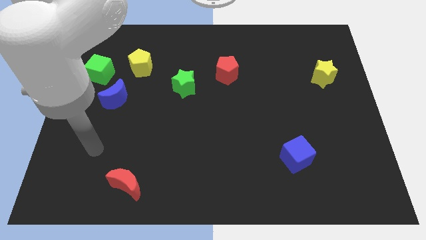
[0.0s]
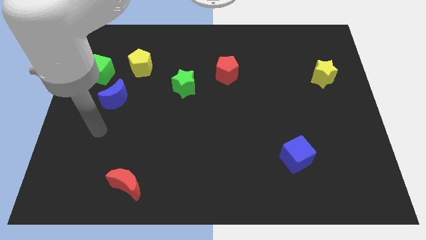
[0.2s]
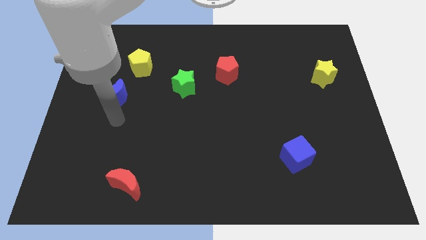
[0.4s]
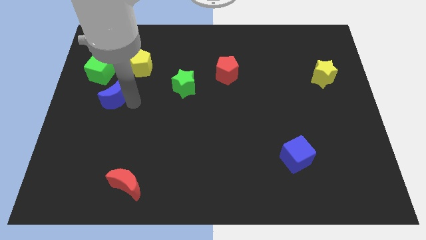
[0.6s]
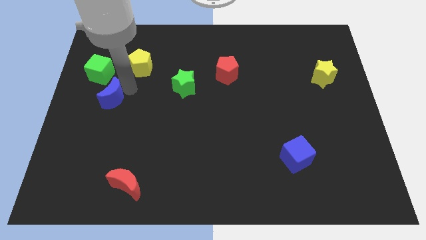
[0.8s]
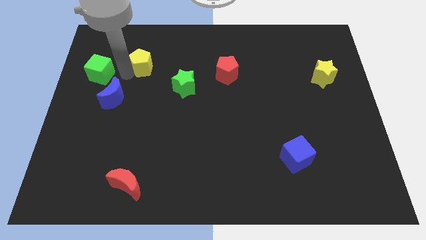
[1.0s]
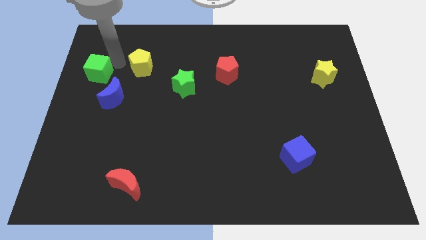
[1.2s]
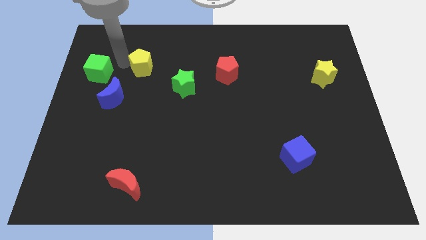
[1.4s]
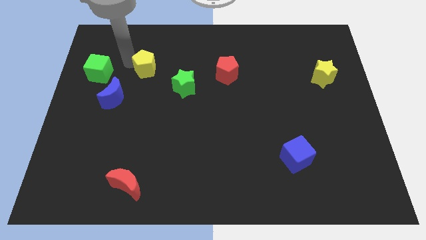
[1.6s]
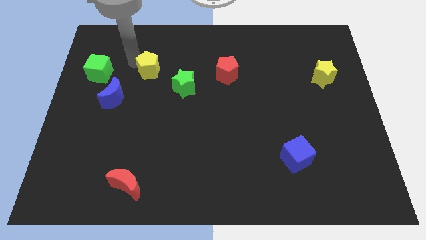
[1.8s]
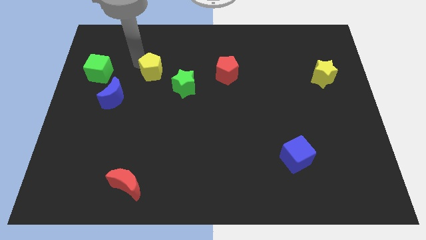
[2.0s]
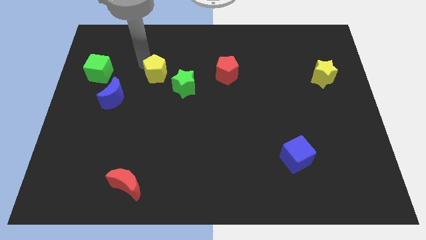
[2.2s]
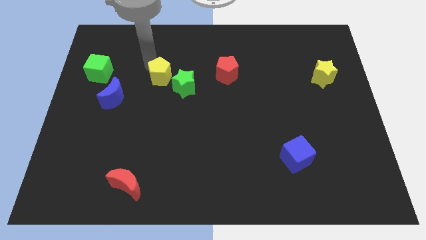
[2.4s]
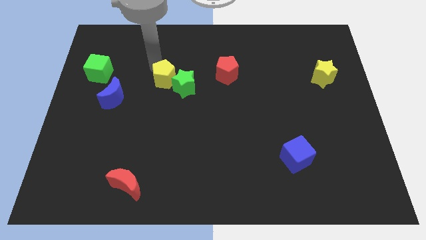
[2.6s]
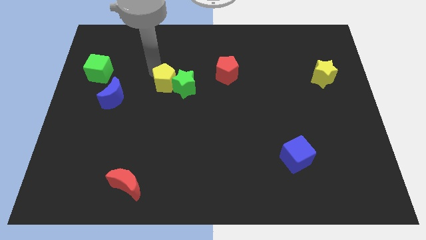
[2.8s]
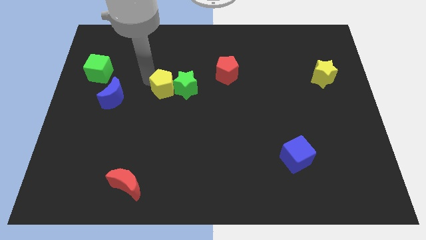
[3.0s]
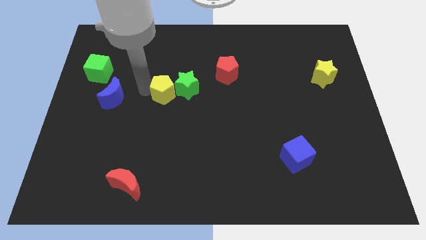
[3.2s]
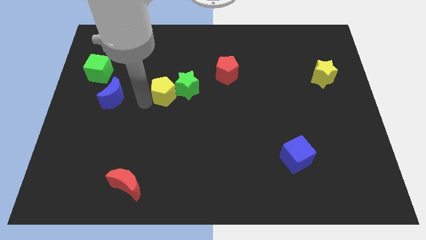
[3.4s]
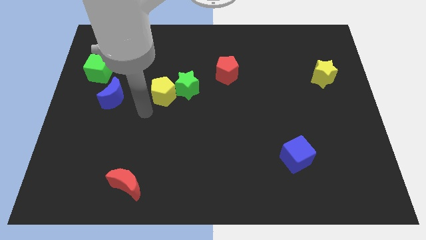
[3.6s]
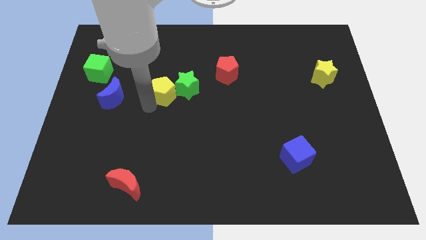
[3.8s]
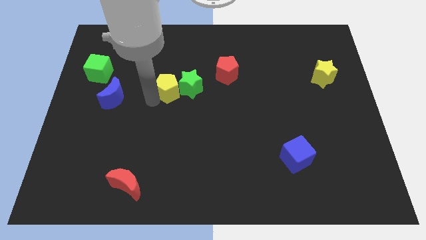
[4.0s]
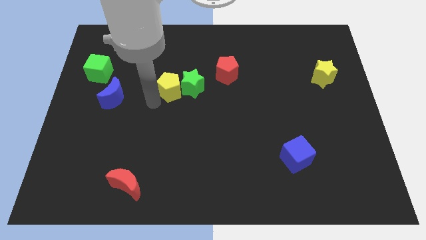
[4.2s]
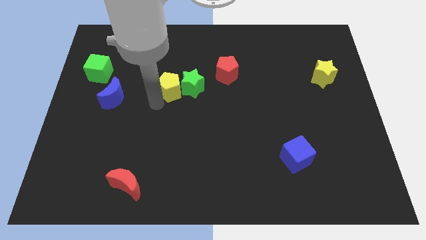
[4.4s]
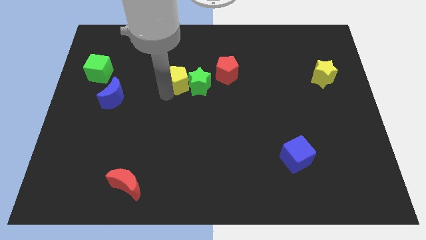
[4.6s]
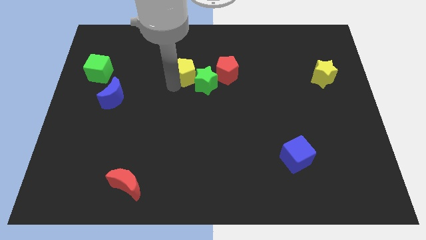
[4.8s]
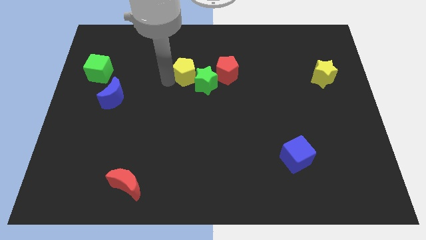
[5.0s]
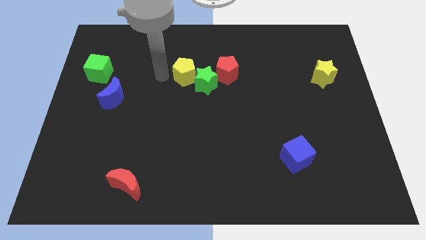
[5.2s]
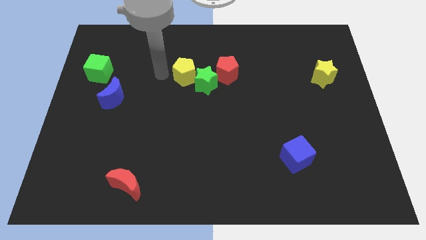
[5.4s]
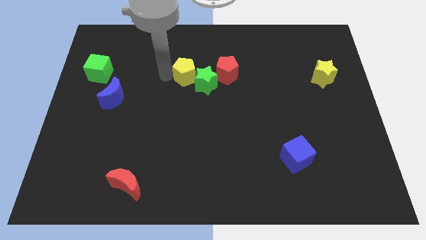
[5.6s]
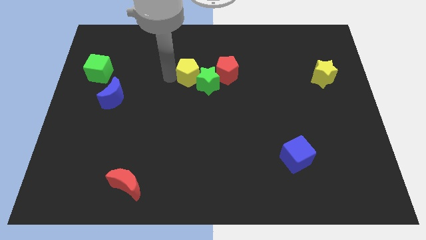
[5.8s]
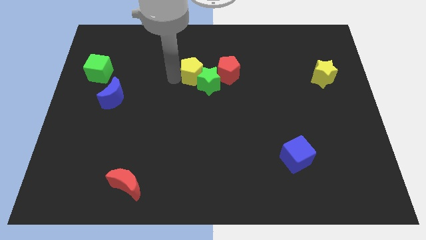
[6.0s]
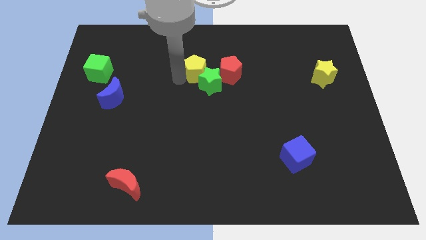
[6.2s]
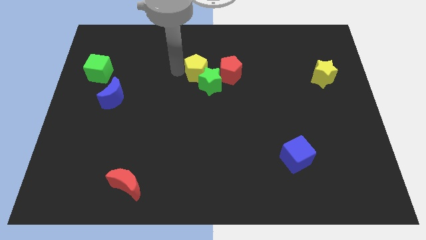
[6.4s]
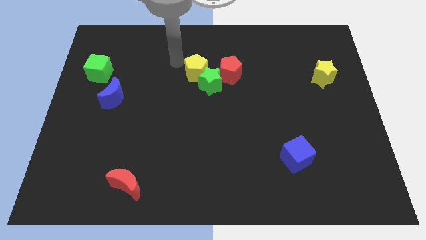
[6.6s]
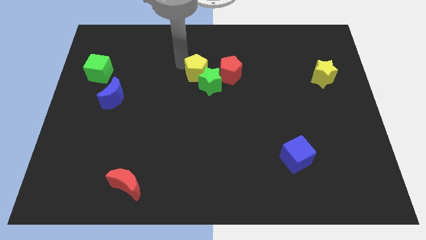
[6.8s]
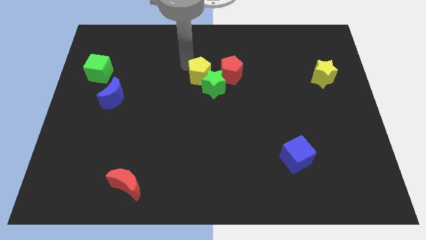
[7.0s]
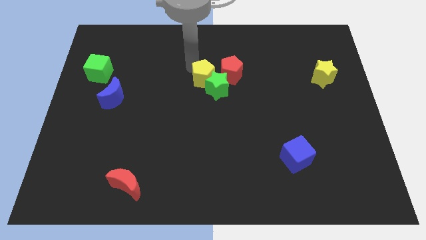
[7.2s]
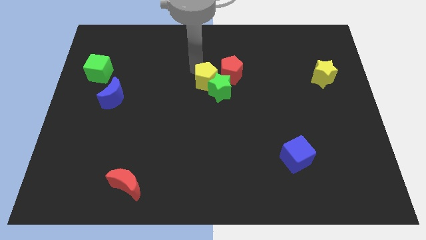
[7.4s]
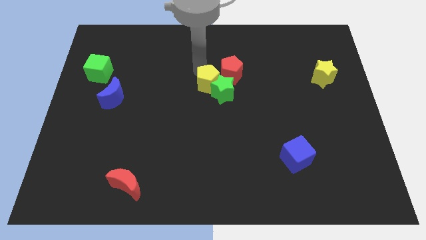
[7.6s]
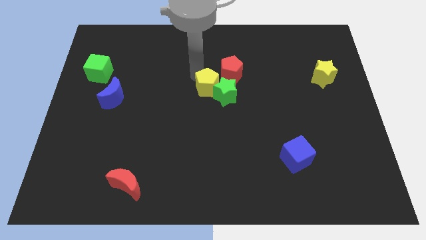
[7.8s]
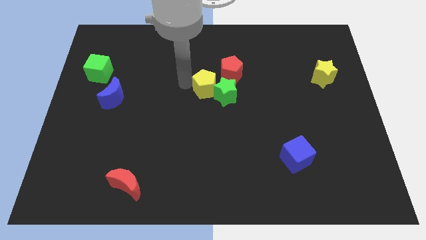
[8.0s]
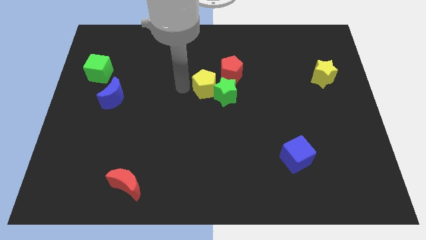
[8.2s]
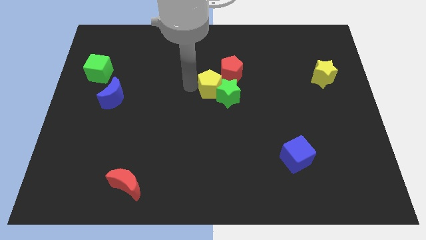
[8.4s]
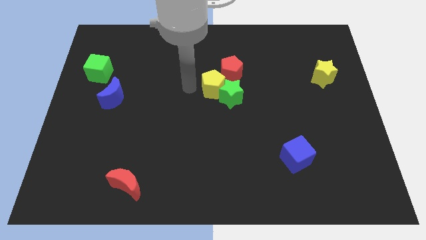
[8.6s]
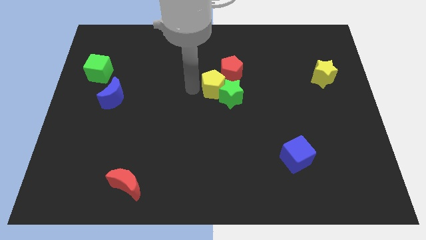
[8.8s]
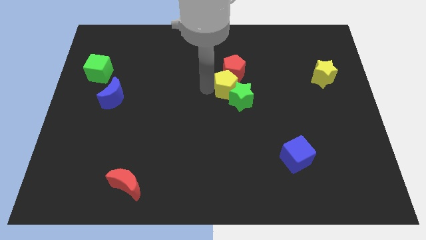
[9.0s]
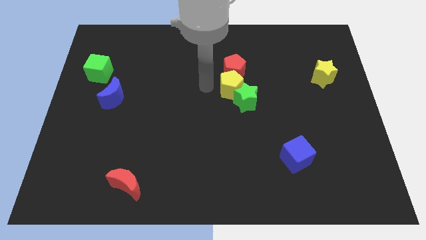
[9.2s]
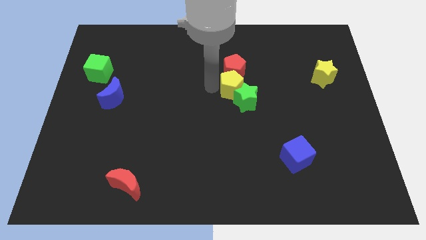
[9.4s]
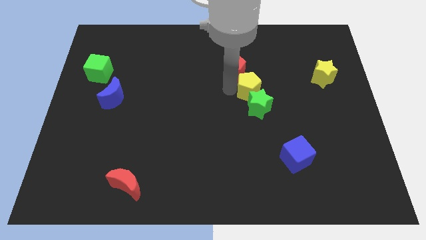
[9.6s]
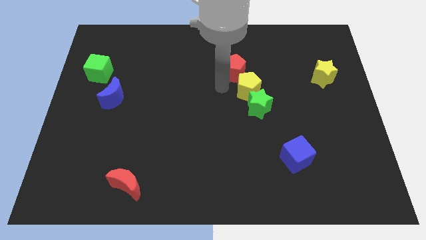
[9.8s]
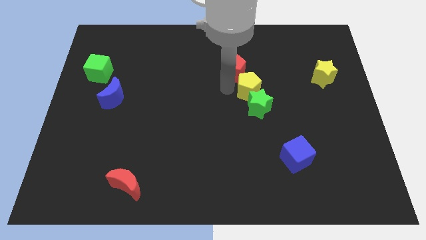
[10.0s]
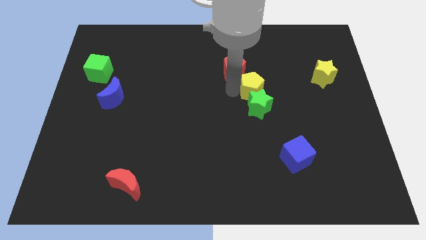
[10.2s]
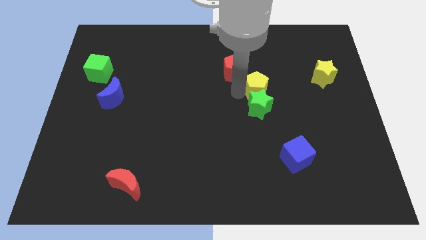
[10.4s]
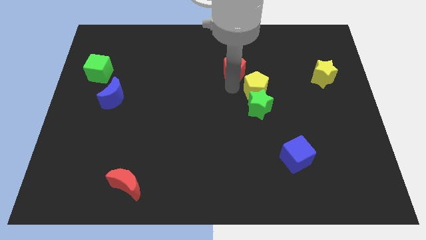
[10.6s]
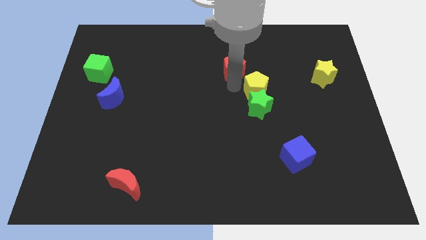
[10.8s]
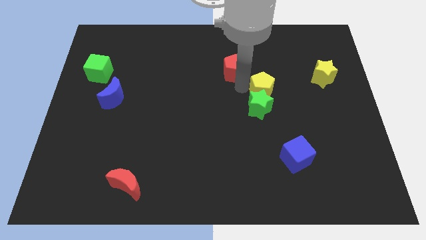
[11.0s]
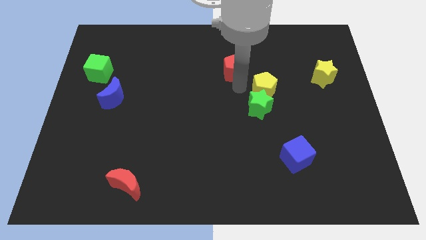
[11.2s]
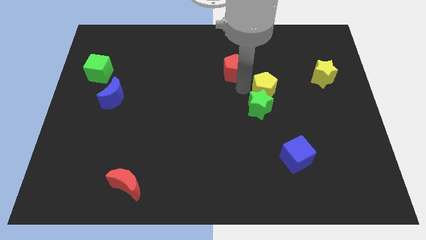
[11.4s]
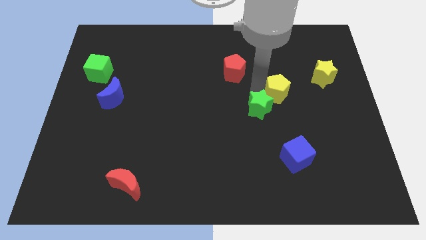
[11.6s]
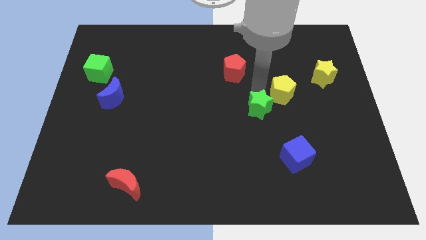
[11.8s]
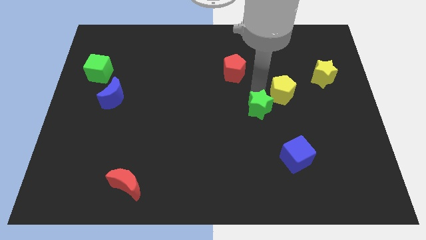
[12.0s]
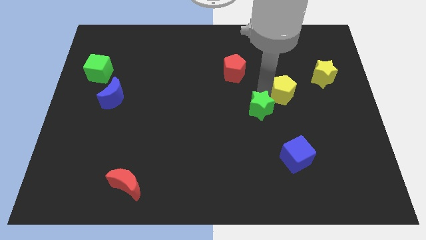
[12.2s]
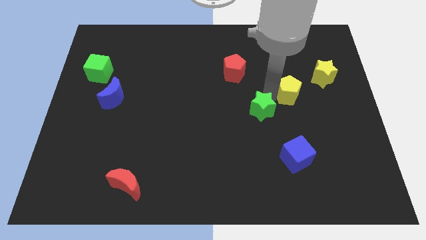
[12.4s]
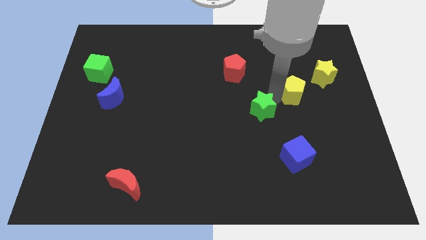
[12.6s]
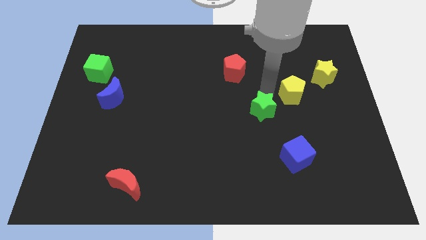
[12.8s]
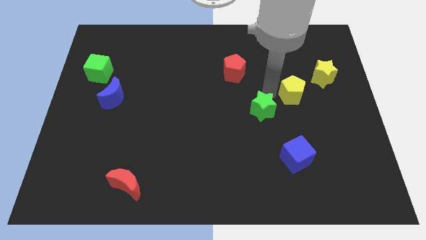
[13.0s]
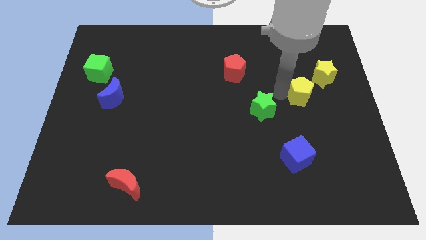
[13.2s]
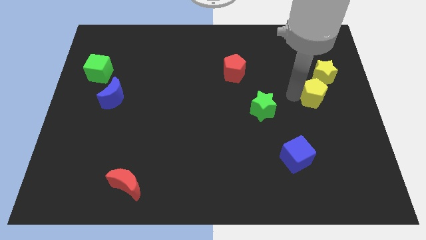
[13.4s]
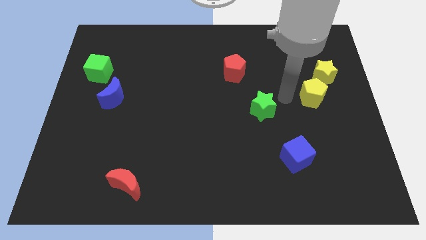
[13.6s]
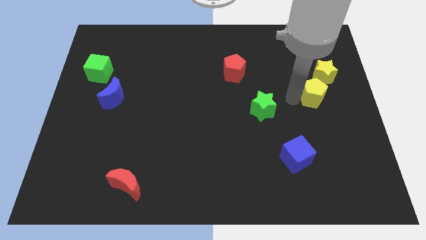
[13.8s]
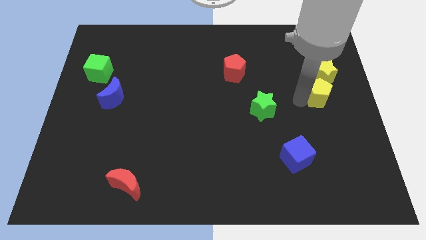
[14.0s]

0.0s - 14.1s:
push the yellow pentagon to the right side
